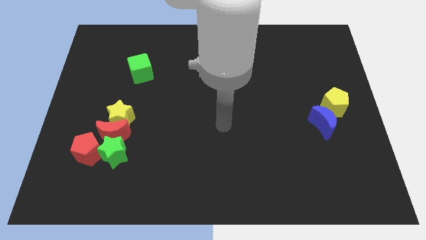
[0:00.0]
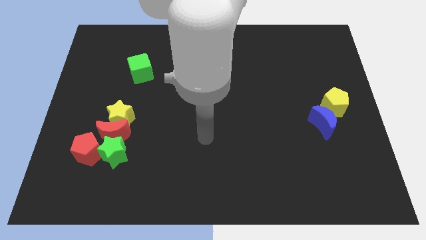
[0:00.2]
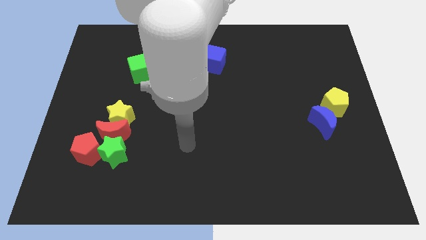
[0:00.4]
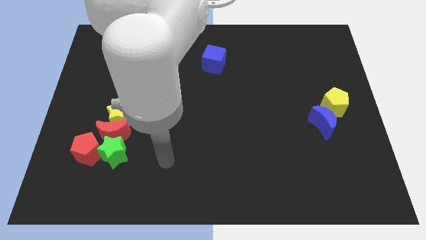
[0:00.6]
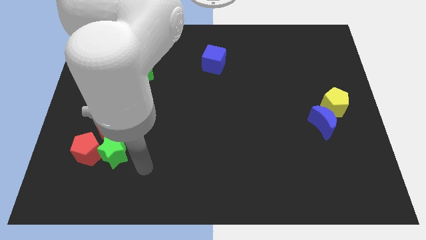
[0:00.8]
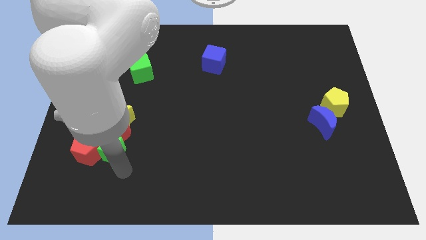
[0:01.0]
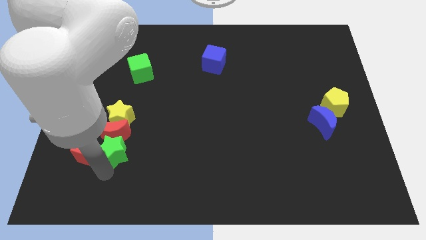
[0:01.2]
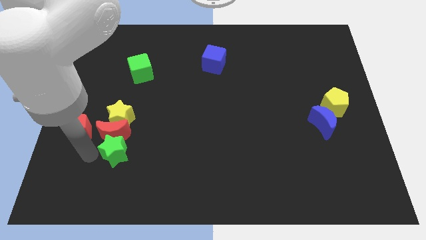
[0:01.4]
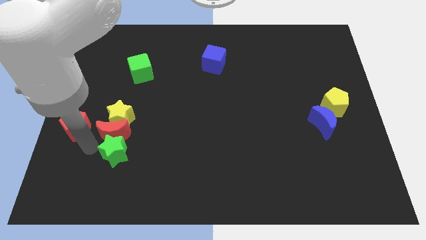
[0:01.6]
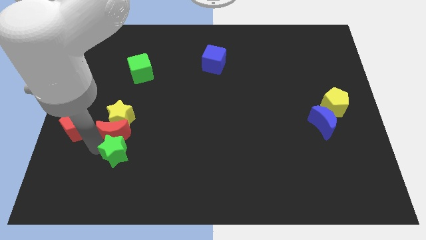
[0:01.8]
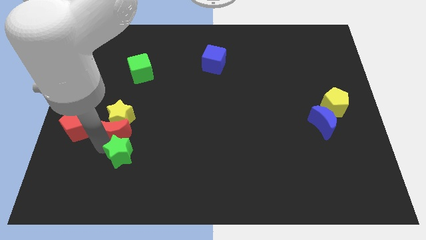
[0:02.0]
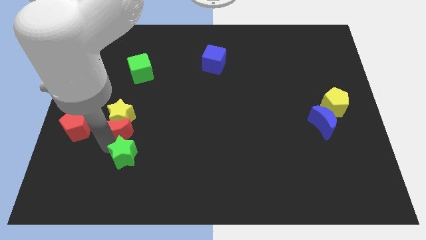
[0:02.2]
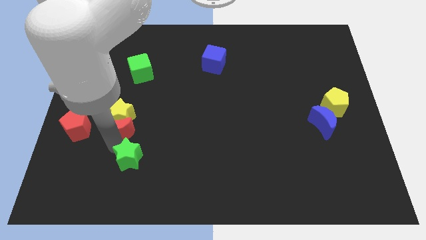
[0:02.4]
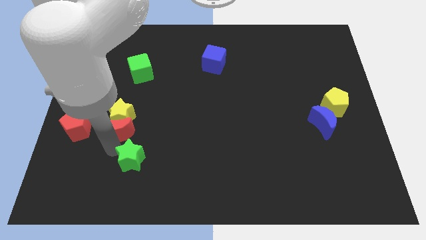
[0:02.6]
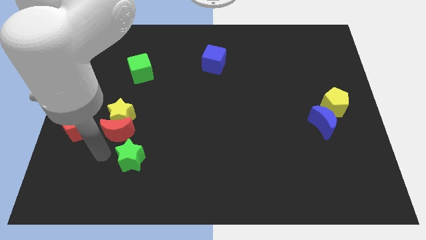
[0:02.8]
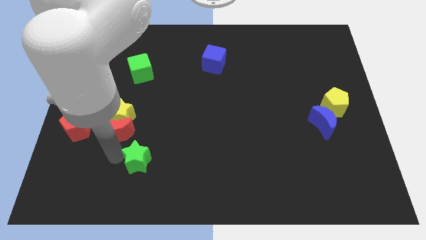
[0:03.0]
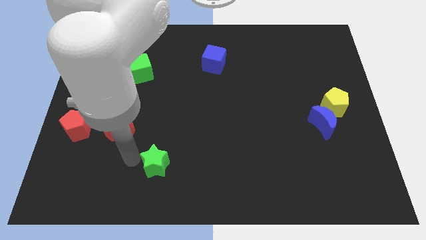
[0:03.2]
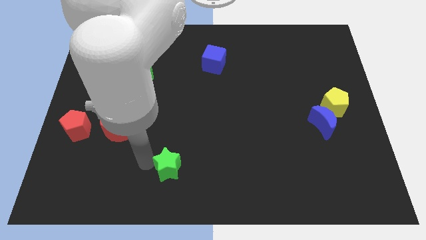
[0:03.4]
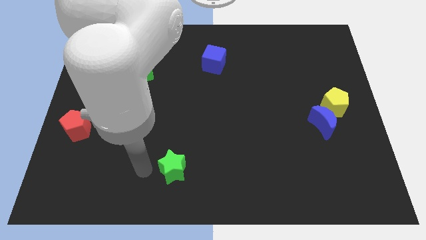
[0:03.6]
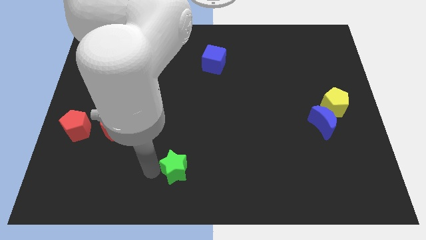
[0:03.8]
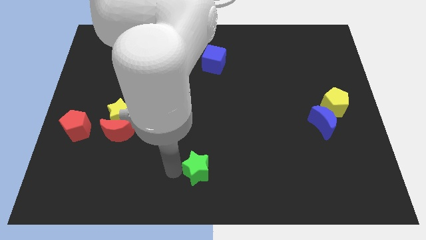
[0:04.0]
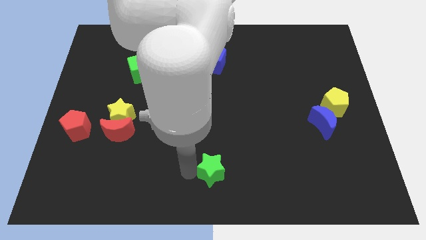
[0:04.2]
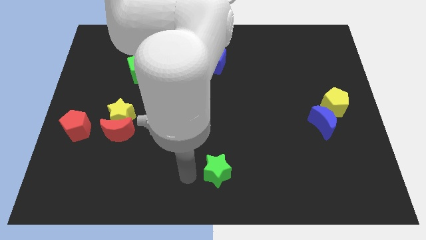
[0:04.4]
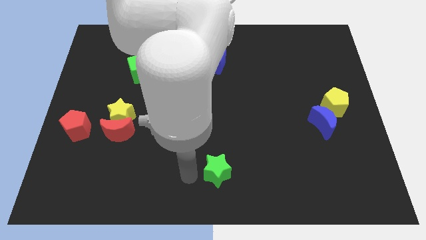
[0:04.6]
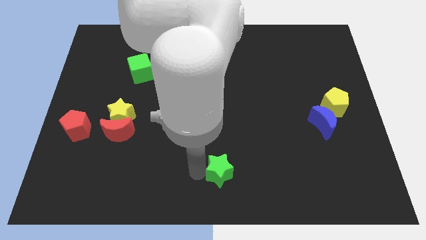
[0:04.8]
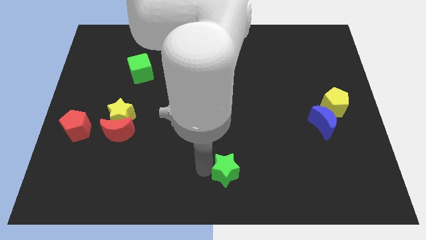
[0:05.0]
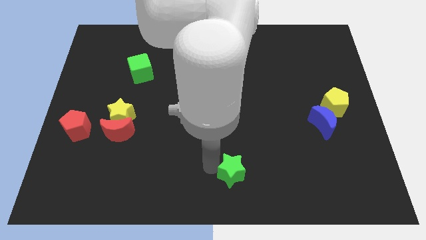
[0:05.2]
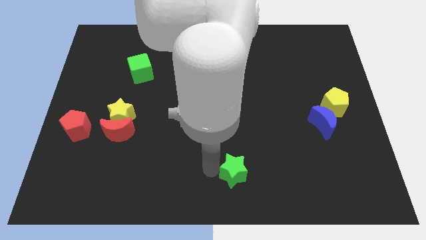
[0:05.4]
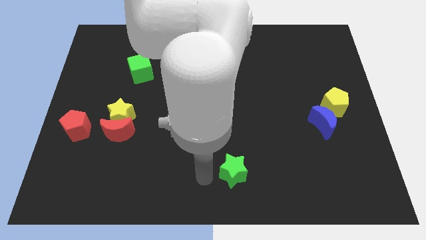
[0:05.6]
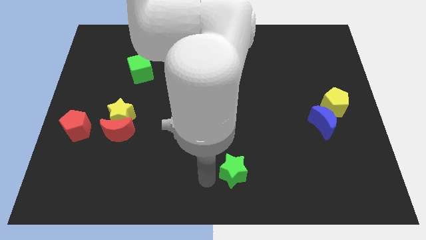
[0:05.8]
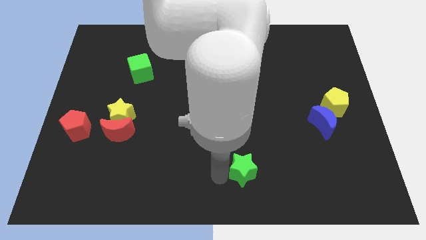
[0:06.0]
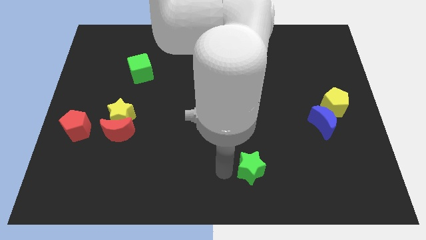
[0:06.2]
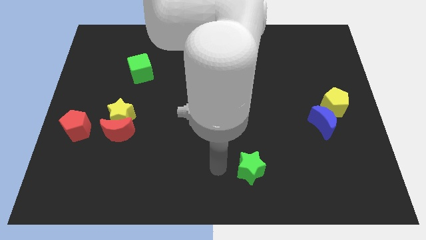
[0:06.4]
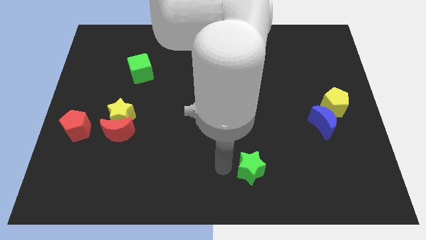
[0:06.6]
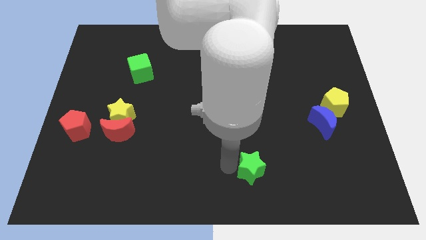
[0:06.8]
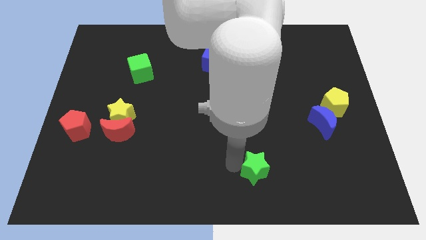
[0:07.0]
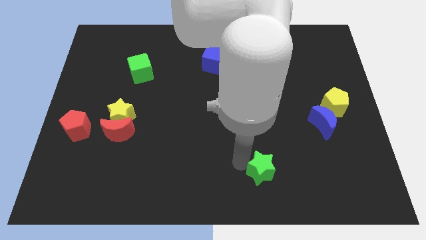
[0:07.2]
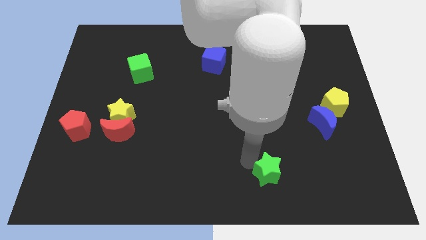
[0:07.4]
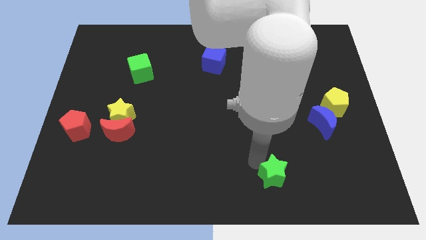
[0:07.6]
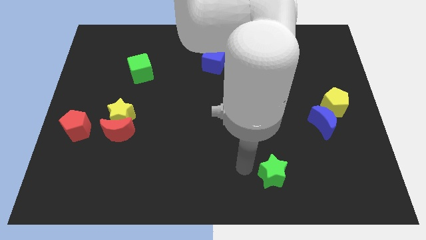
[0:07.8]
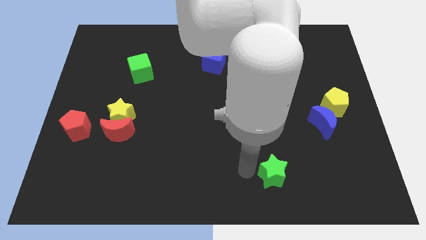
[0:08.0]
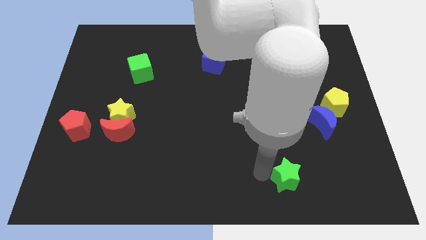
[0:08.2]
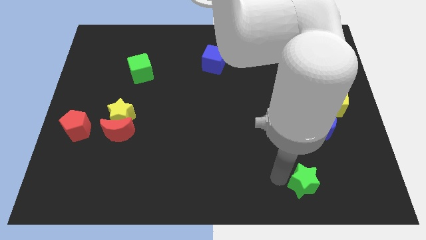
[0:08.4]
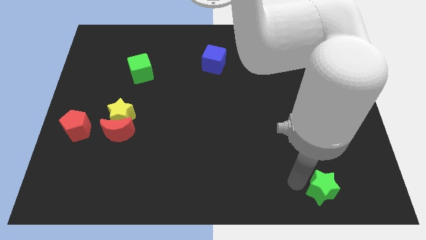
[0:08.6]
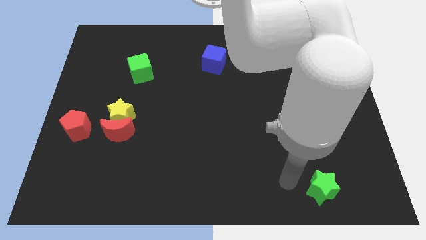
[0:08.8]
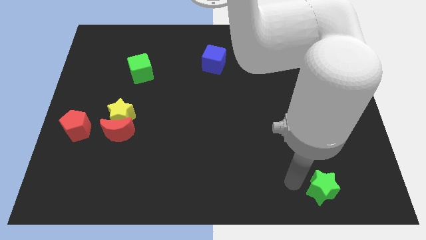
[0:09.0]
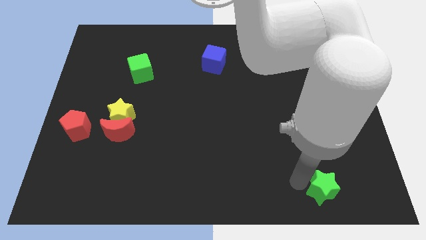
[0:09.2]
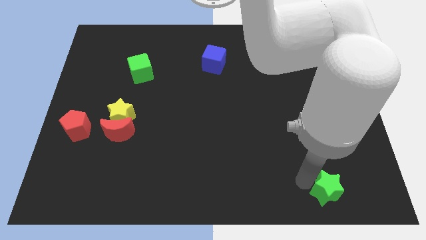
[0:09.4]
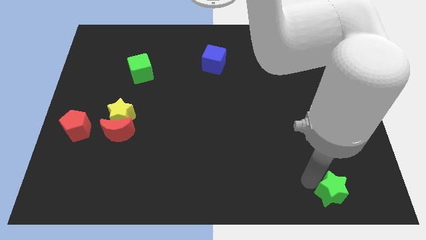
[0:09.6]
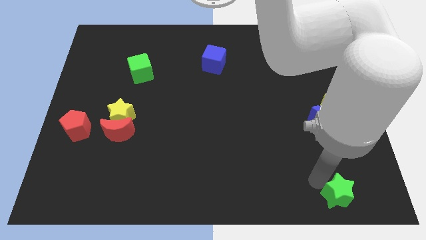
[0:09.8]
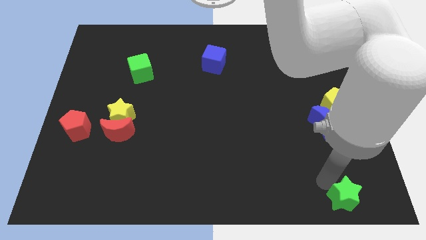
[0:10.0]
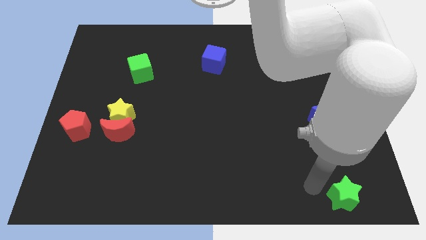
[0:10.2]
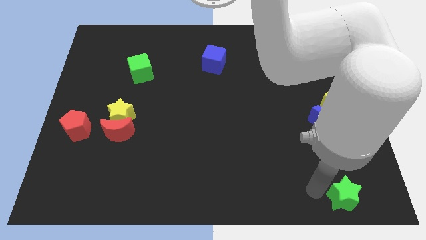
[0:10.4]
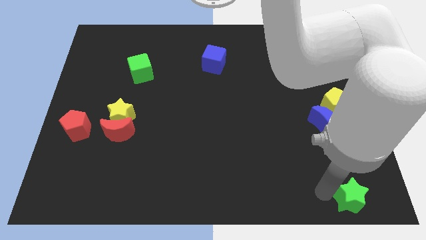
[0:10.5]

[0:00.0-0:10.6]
put the green star to the bottom right of the board

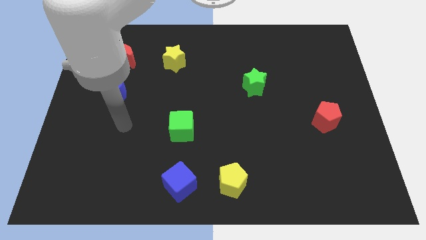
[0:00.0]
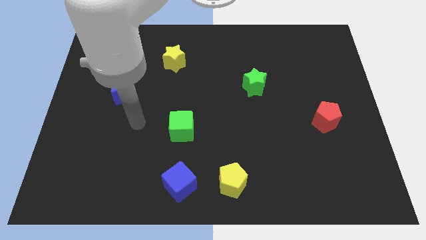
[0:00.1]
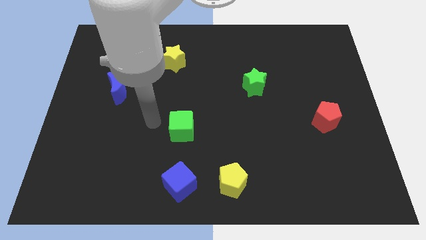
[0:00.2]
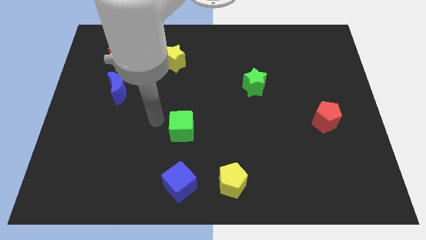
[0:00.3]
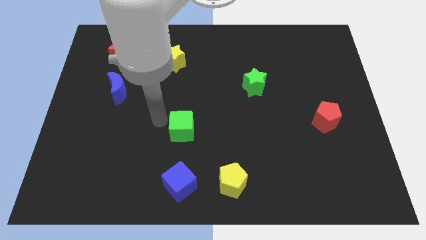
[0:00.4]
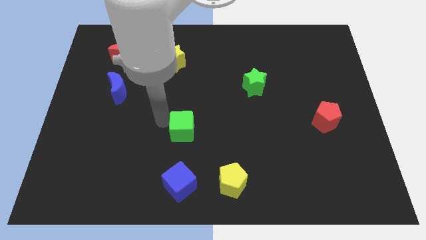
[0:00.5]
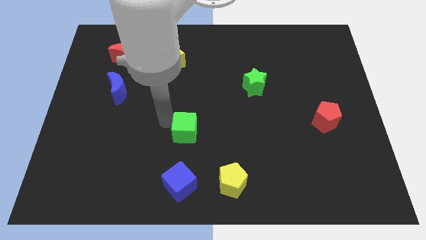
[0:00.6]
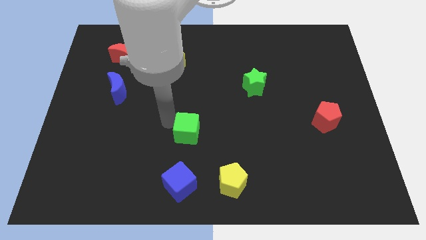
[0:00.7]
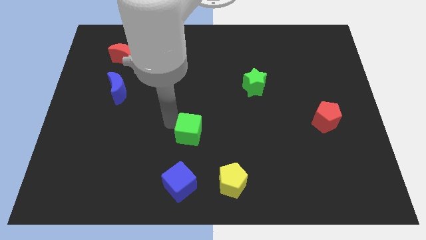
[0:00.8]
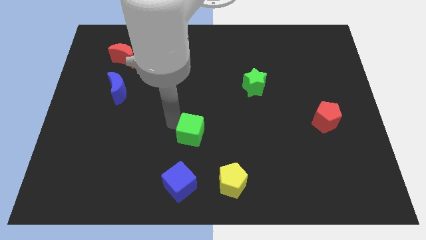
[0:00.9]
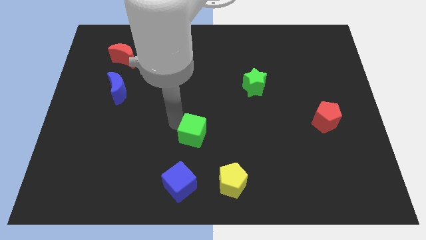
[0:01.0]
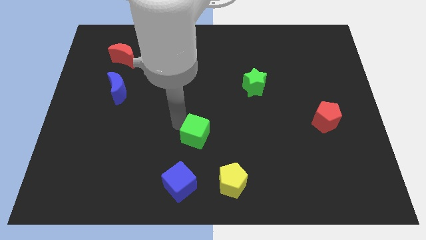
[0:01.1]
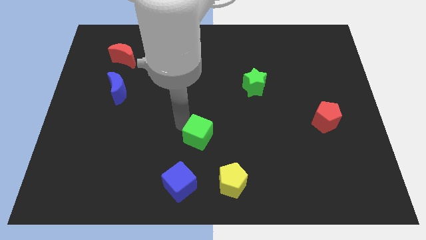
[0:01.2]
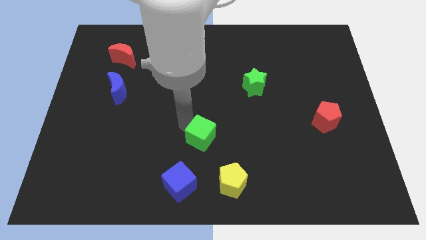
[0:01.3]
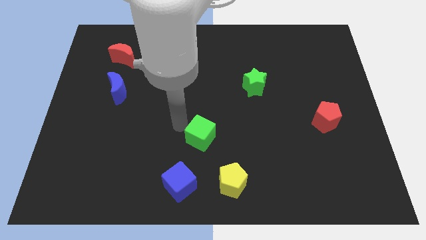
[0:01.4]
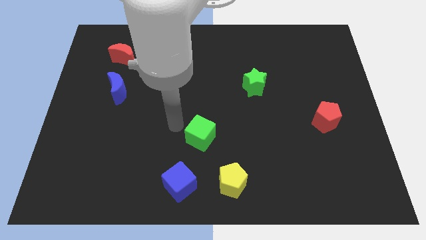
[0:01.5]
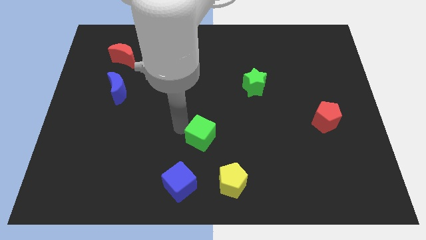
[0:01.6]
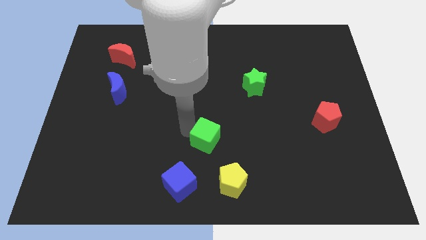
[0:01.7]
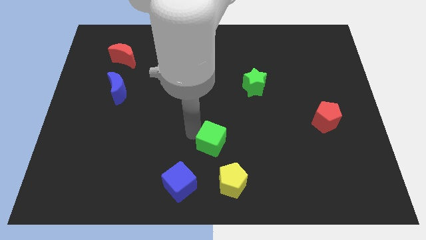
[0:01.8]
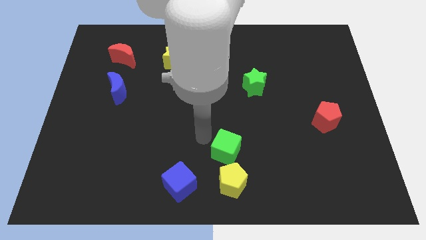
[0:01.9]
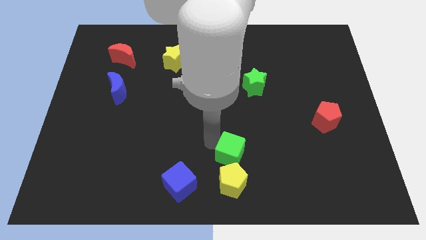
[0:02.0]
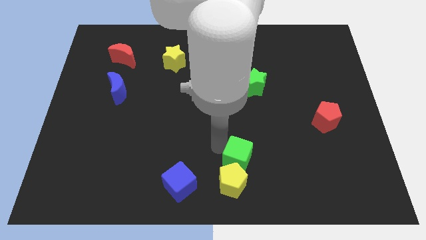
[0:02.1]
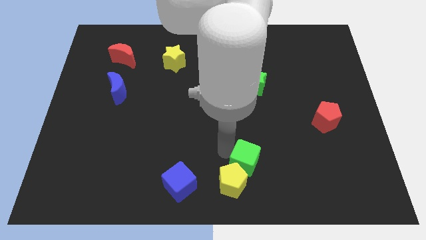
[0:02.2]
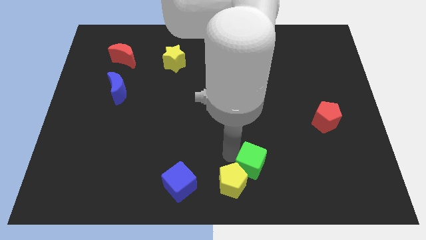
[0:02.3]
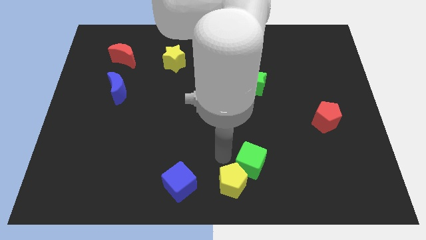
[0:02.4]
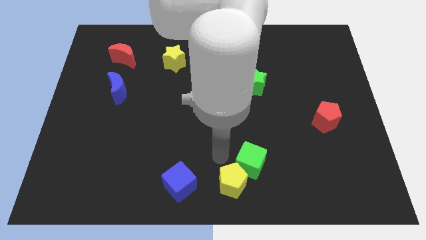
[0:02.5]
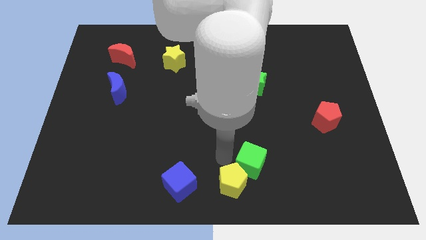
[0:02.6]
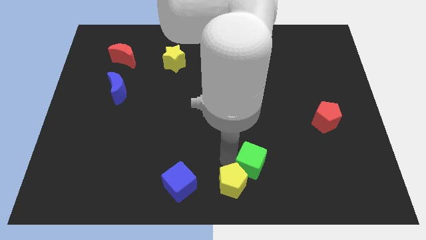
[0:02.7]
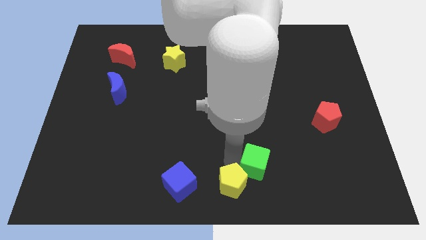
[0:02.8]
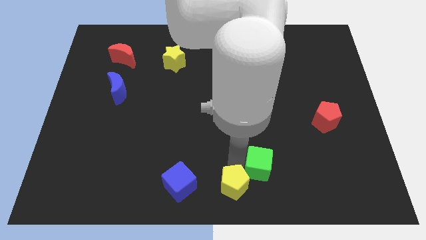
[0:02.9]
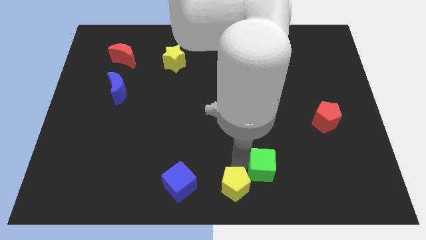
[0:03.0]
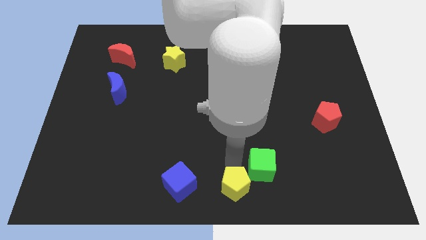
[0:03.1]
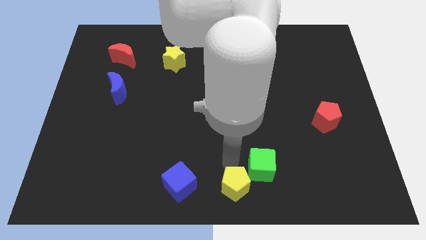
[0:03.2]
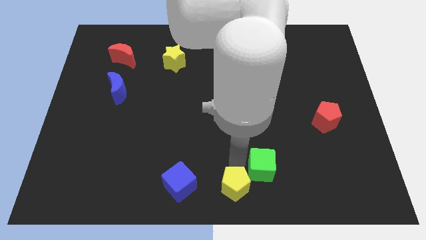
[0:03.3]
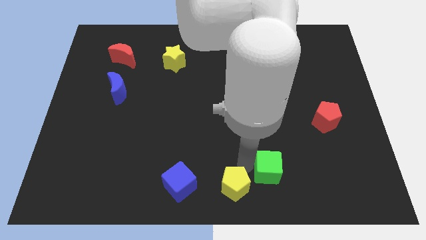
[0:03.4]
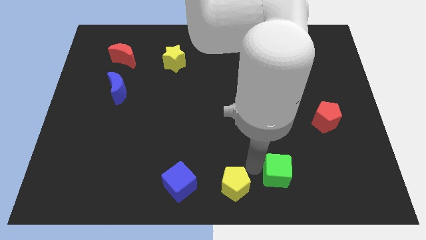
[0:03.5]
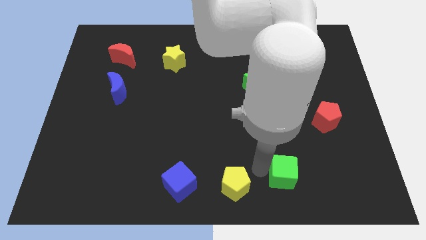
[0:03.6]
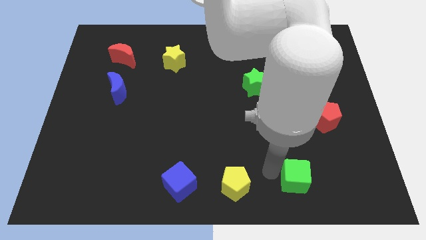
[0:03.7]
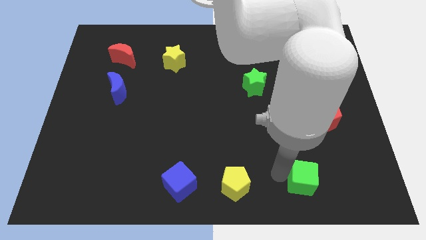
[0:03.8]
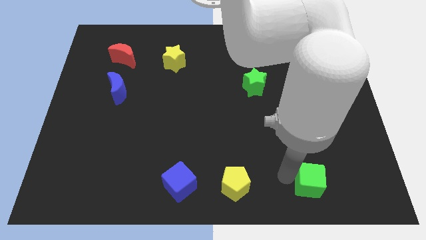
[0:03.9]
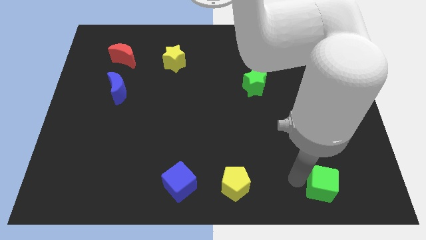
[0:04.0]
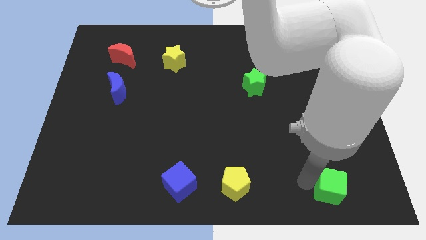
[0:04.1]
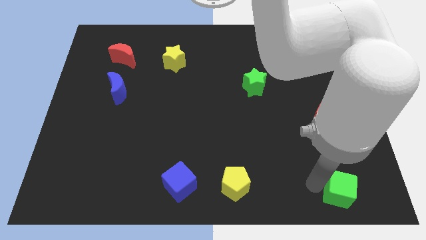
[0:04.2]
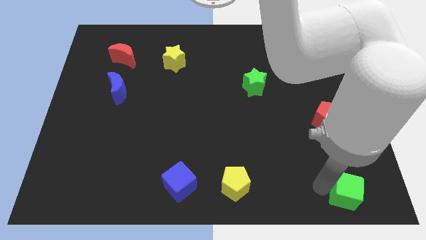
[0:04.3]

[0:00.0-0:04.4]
put the green cube to the bottom right
